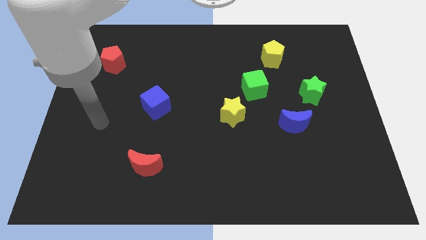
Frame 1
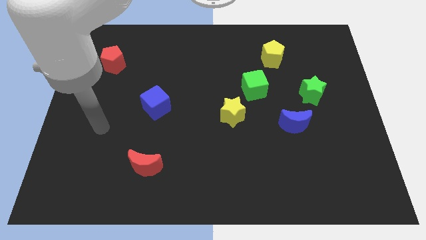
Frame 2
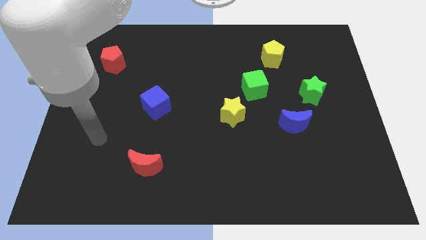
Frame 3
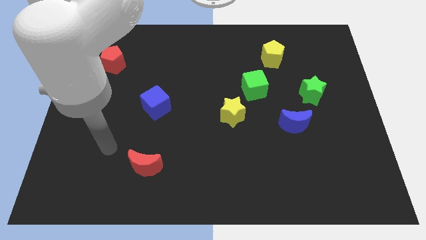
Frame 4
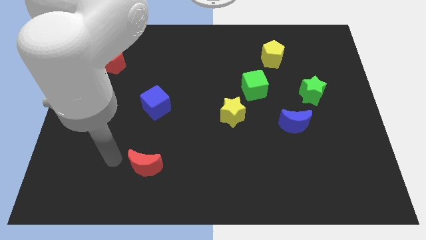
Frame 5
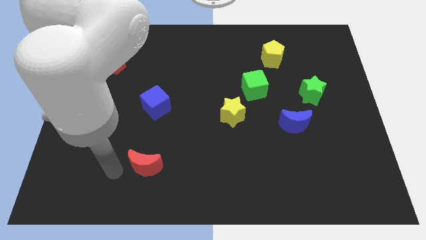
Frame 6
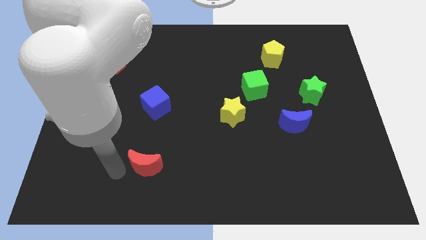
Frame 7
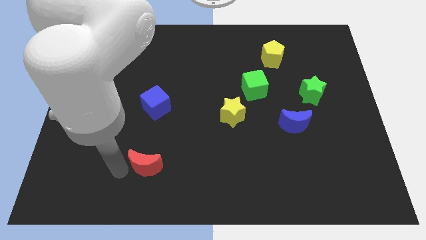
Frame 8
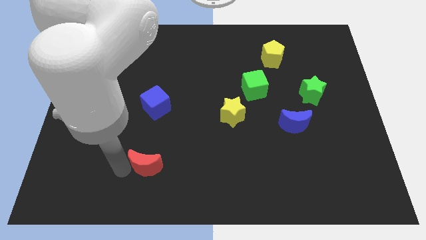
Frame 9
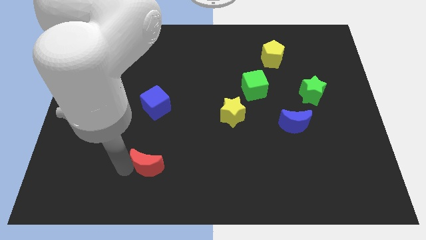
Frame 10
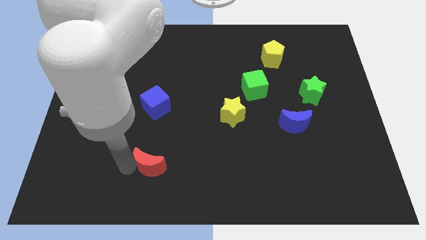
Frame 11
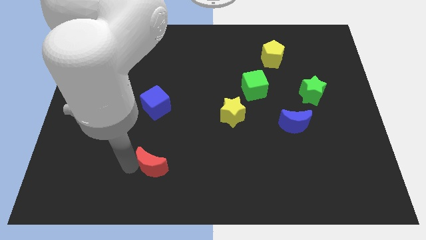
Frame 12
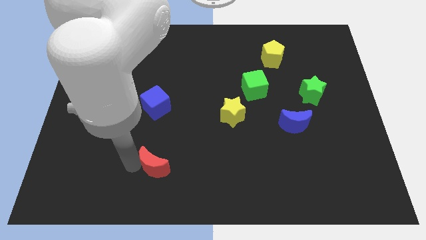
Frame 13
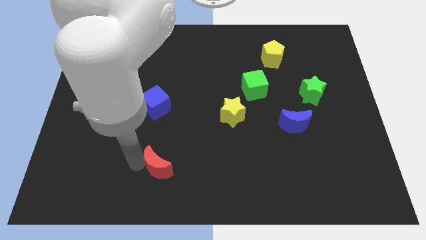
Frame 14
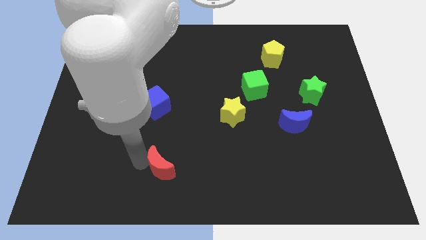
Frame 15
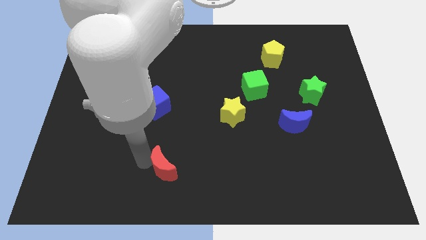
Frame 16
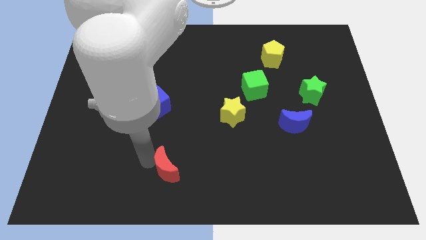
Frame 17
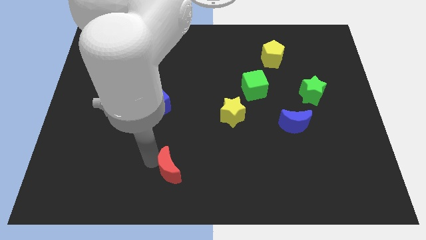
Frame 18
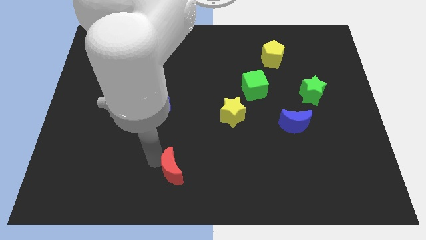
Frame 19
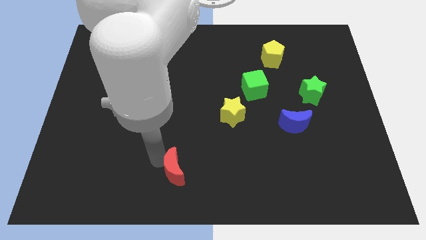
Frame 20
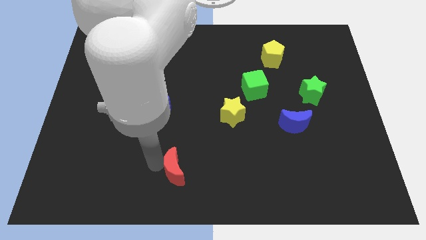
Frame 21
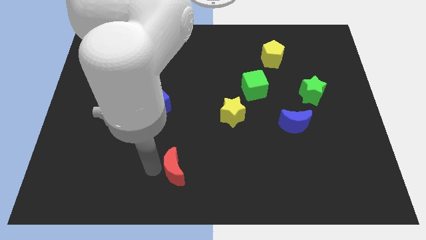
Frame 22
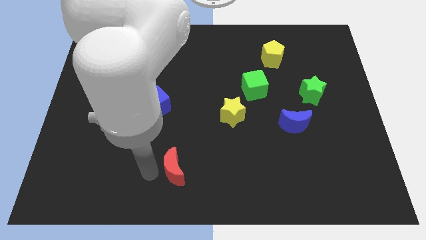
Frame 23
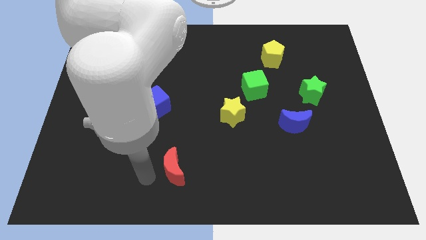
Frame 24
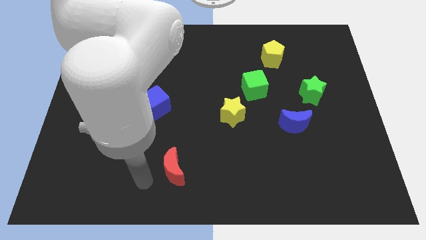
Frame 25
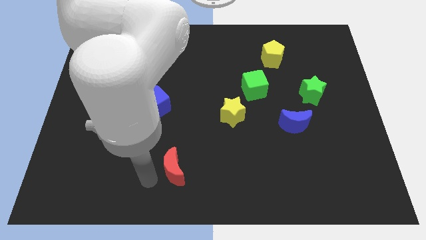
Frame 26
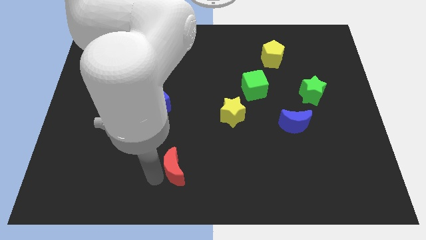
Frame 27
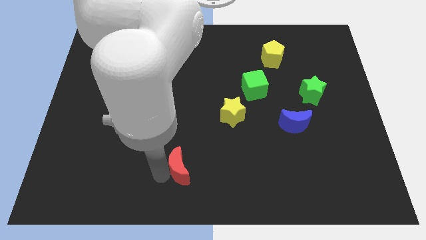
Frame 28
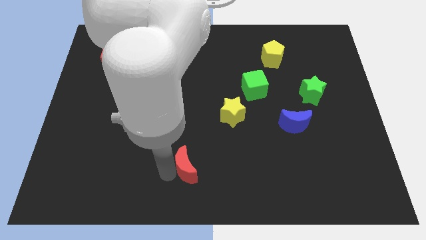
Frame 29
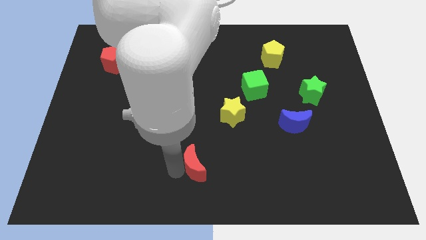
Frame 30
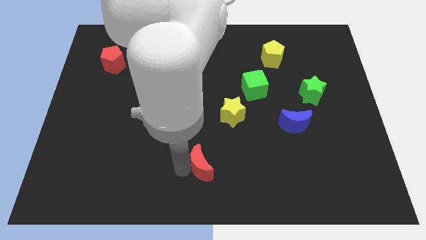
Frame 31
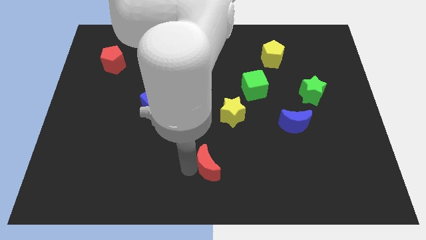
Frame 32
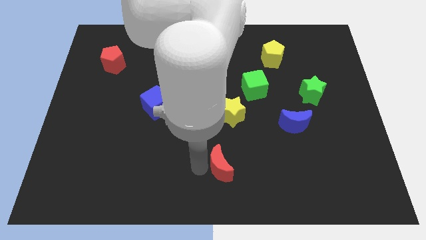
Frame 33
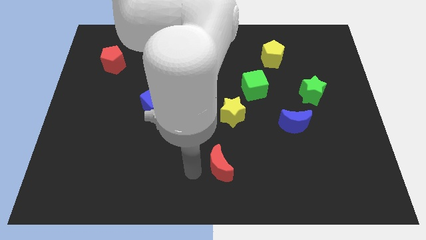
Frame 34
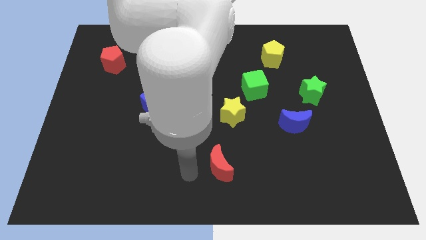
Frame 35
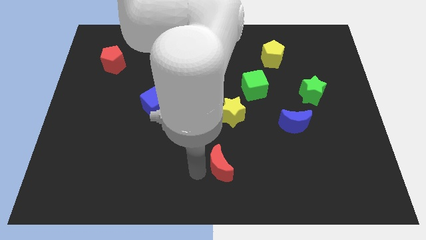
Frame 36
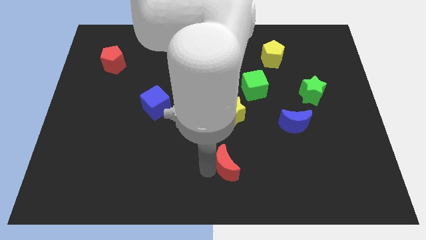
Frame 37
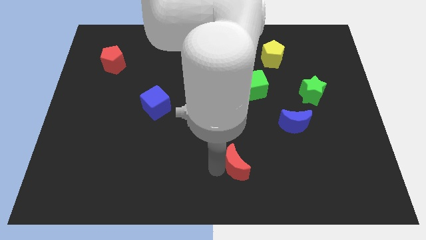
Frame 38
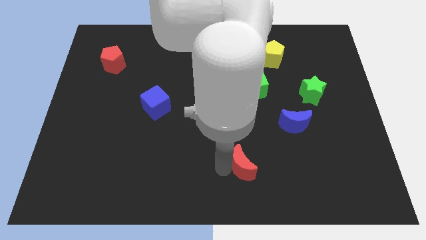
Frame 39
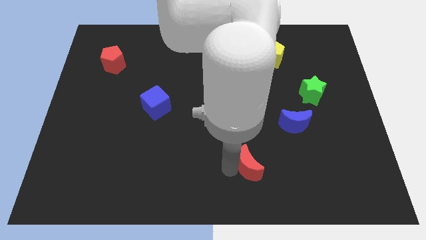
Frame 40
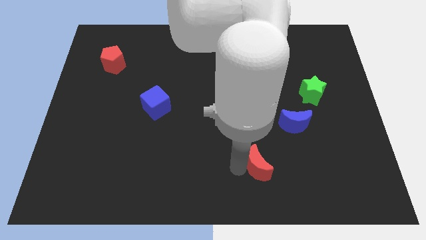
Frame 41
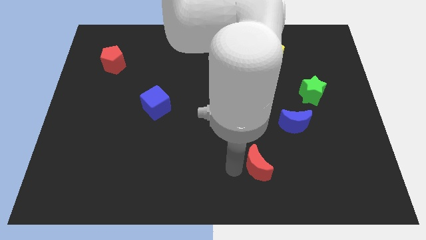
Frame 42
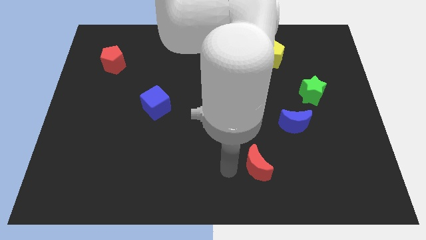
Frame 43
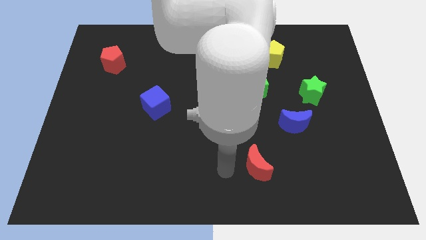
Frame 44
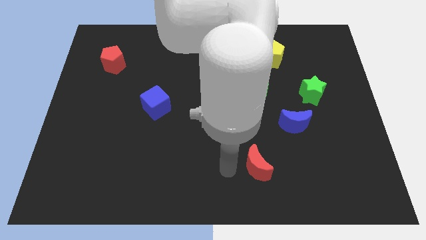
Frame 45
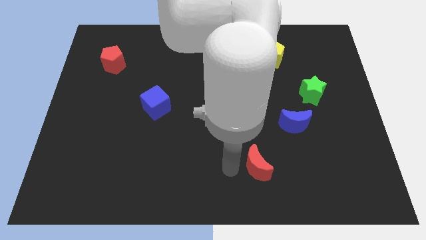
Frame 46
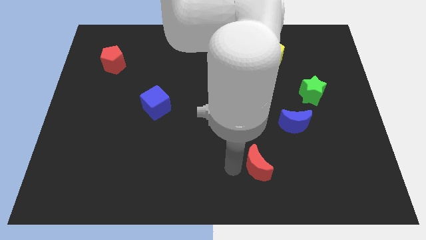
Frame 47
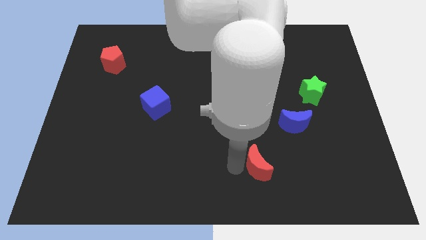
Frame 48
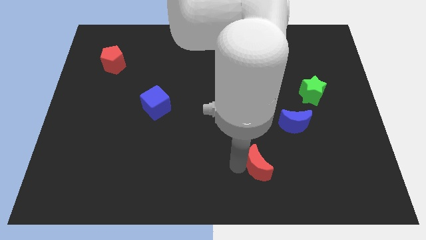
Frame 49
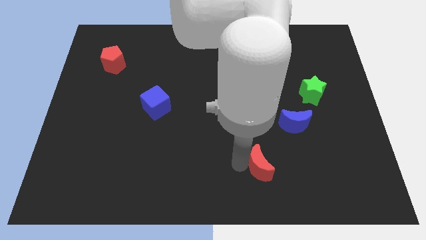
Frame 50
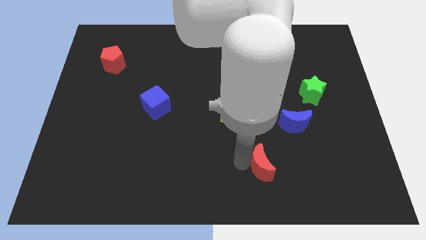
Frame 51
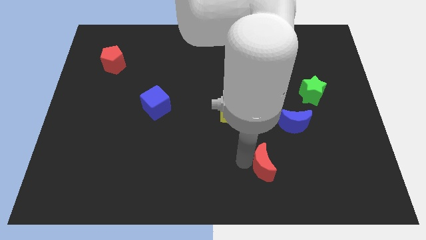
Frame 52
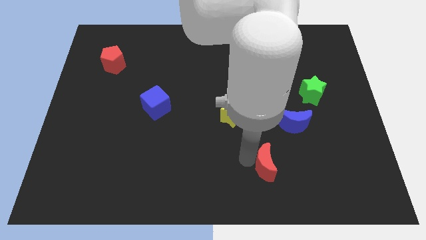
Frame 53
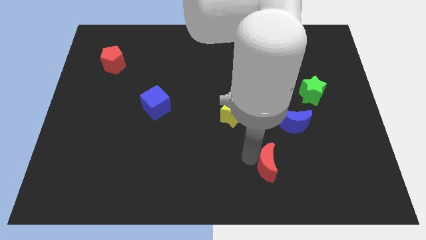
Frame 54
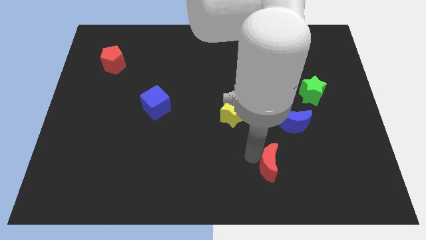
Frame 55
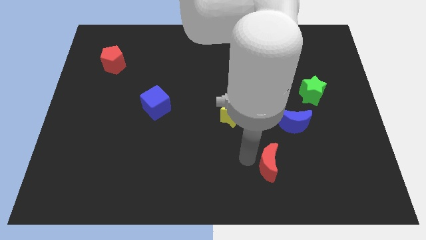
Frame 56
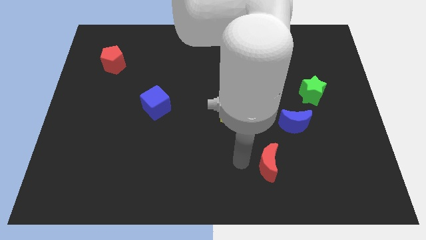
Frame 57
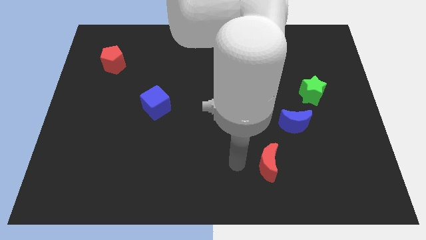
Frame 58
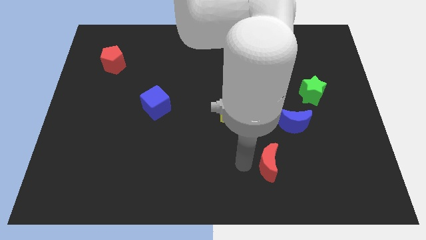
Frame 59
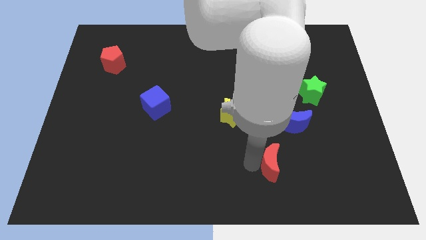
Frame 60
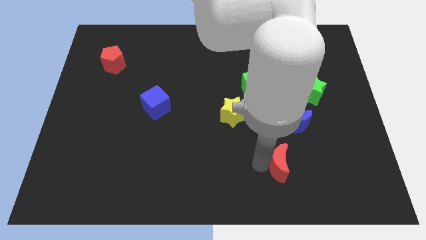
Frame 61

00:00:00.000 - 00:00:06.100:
slide the red moon below the blue moon

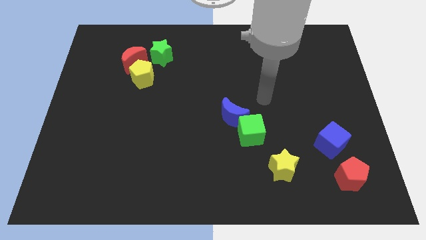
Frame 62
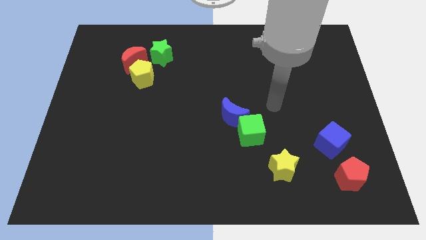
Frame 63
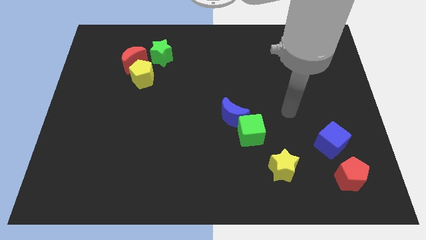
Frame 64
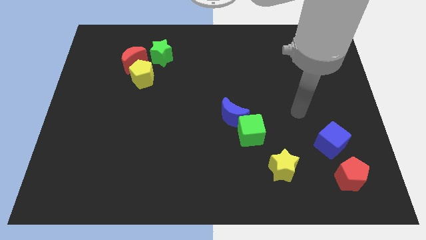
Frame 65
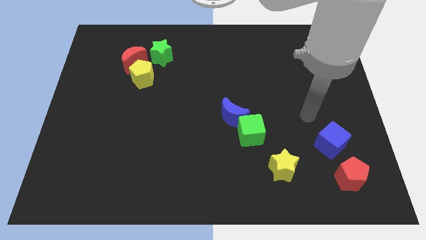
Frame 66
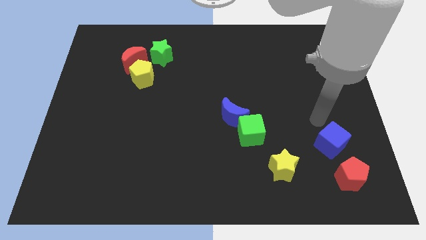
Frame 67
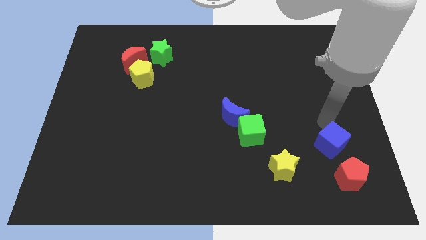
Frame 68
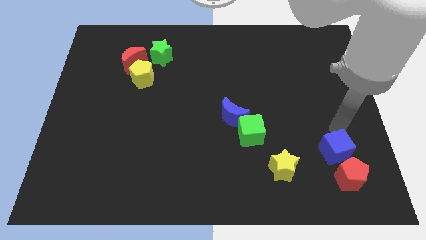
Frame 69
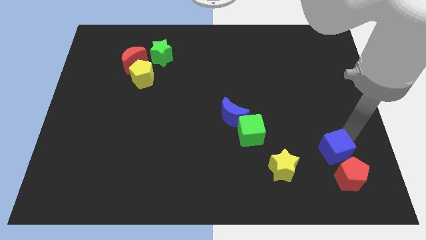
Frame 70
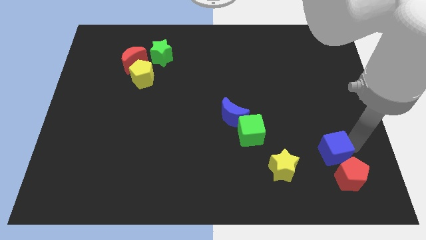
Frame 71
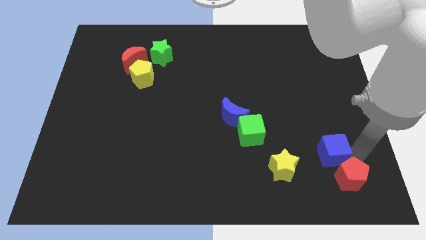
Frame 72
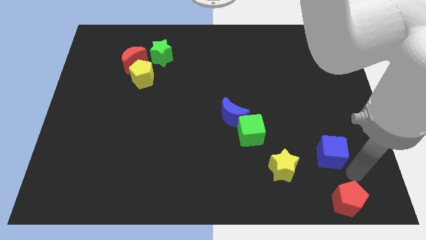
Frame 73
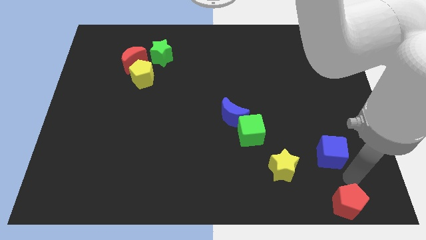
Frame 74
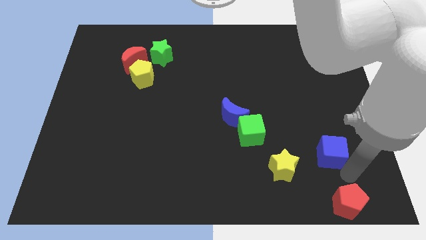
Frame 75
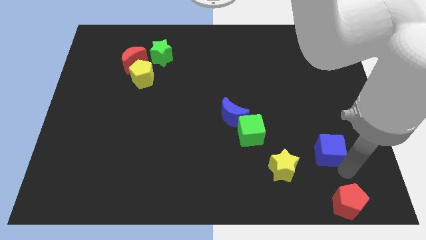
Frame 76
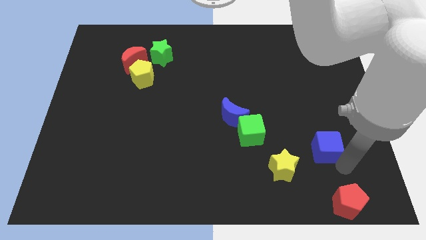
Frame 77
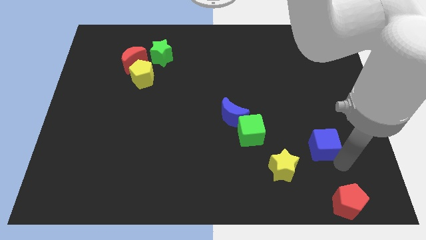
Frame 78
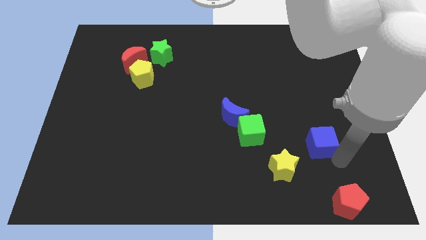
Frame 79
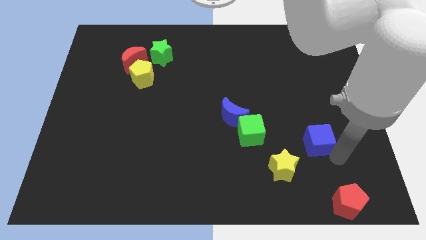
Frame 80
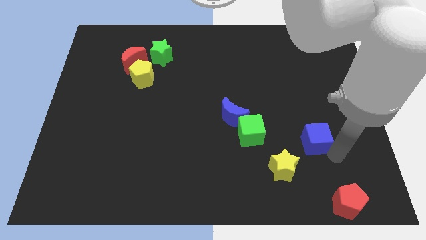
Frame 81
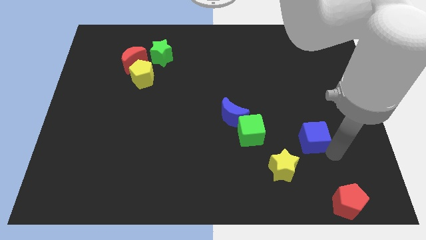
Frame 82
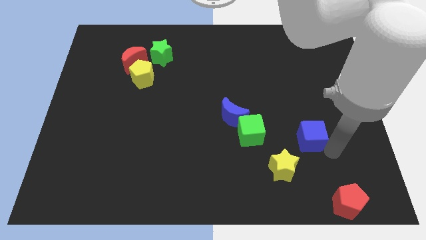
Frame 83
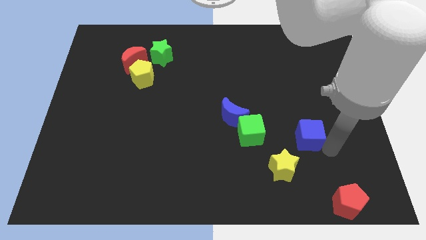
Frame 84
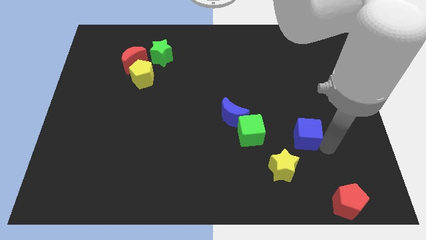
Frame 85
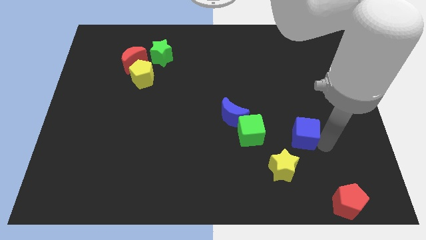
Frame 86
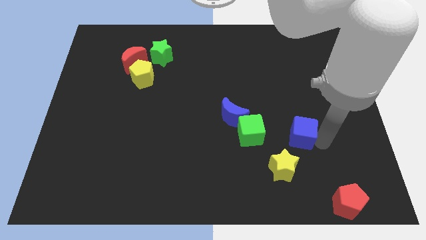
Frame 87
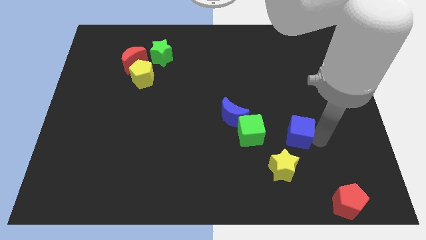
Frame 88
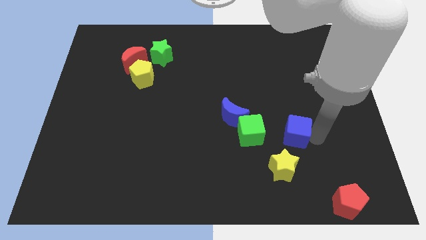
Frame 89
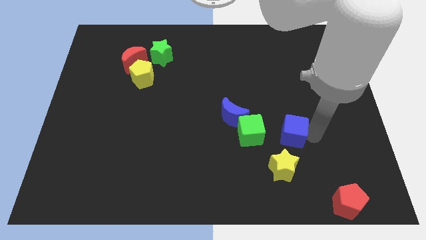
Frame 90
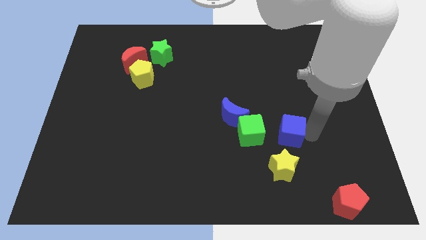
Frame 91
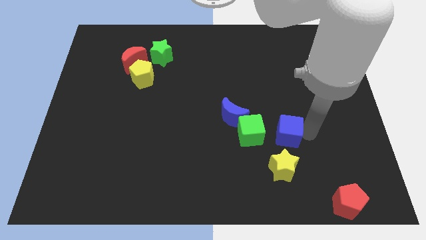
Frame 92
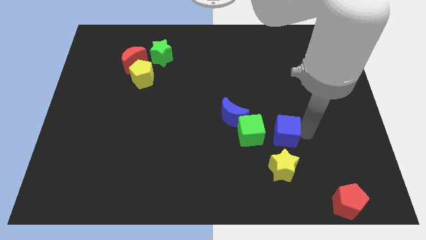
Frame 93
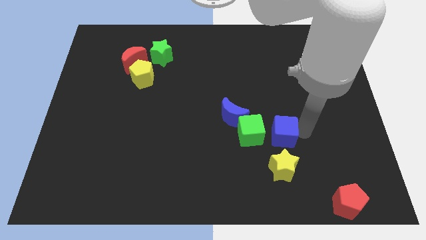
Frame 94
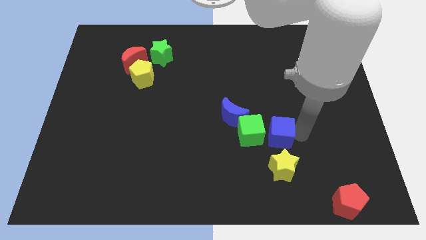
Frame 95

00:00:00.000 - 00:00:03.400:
push the blue cube to the top right side of the green cube
